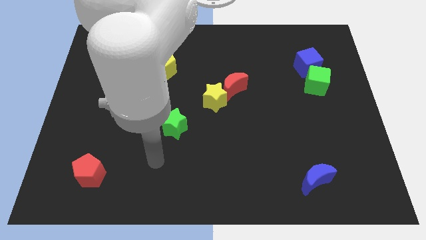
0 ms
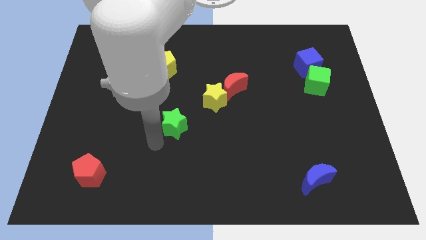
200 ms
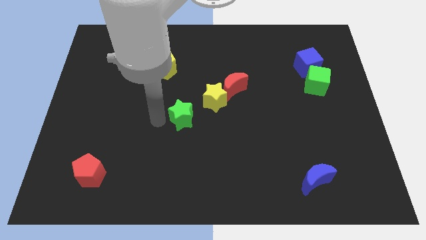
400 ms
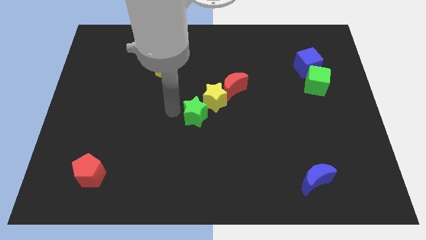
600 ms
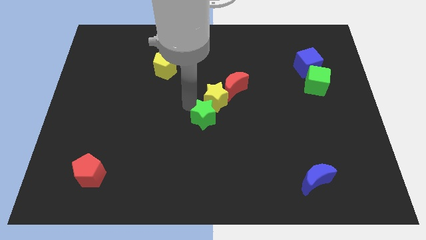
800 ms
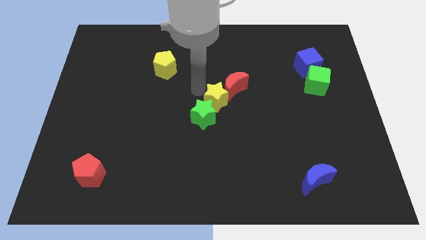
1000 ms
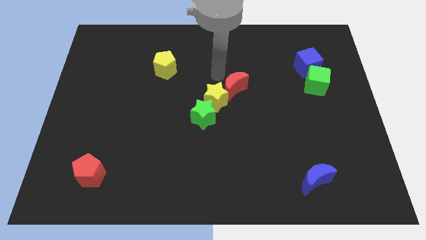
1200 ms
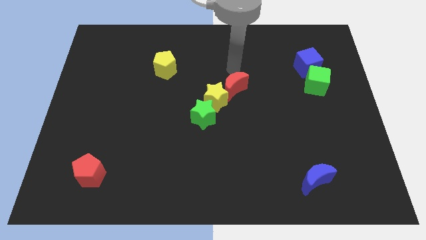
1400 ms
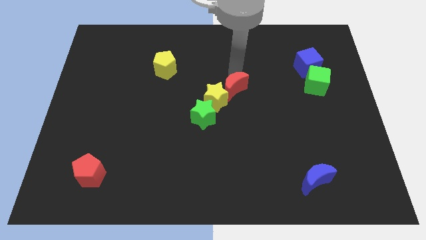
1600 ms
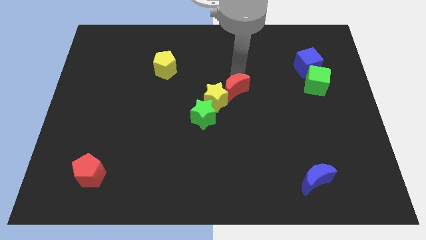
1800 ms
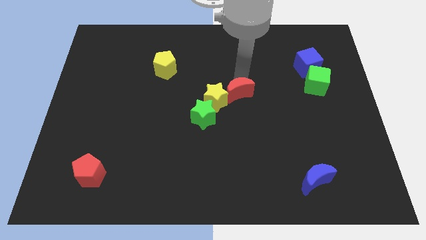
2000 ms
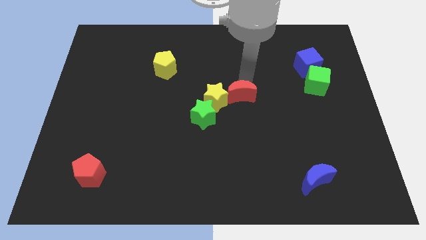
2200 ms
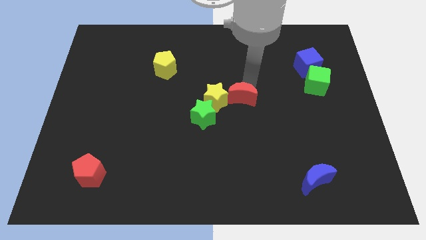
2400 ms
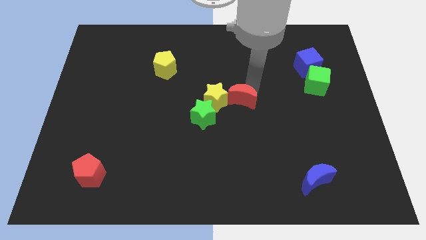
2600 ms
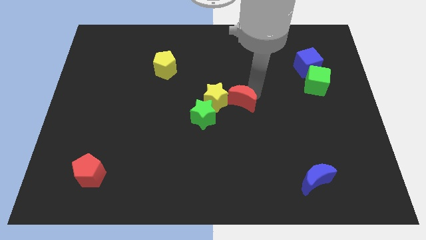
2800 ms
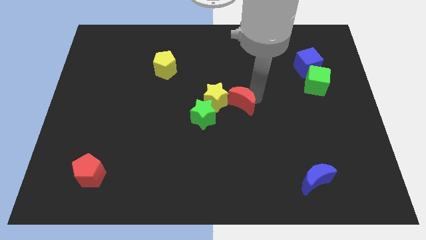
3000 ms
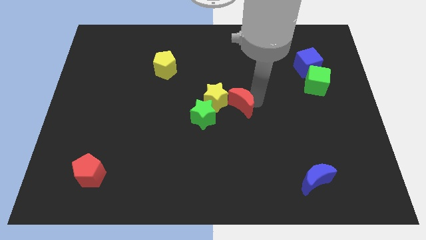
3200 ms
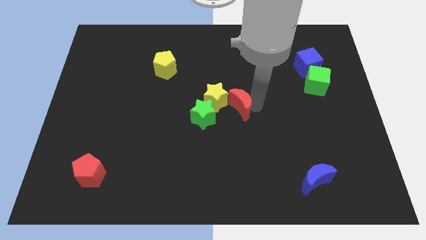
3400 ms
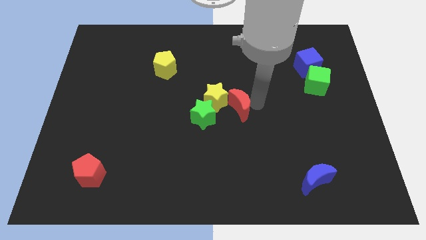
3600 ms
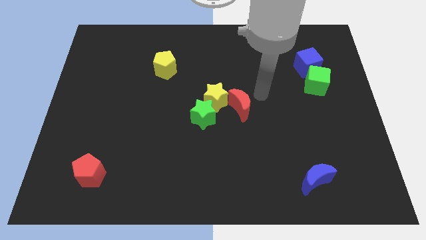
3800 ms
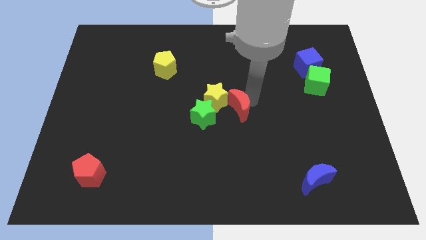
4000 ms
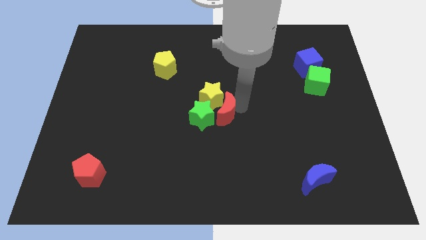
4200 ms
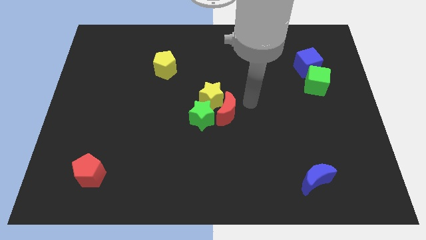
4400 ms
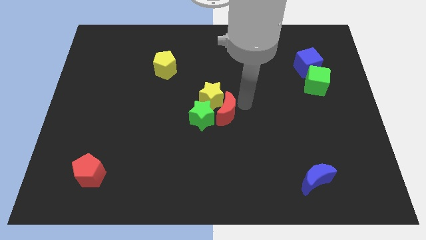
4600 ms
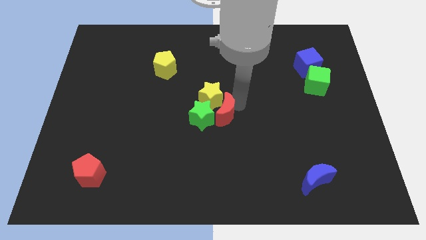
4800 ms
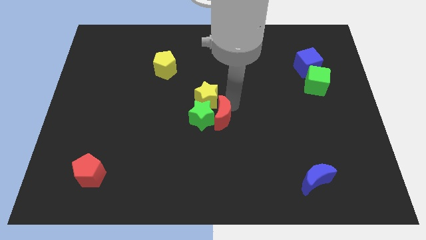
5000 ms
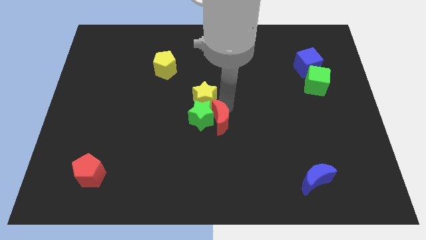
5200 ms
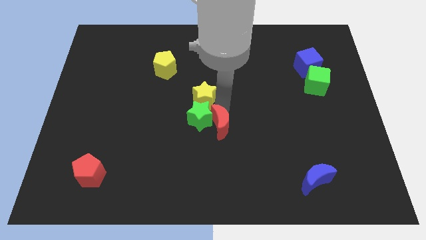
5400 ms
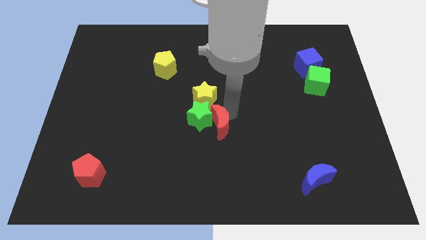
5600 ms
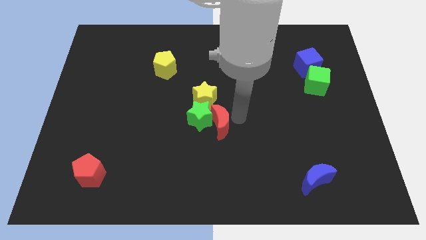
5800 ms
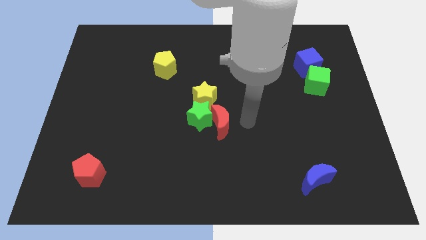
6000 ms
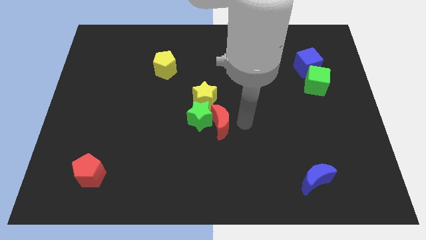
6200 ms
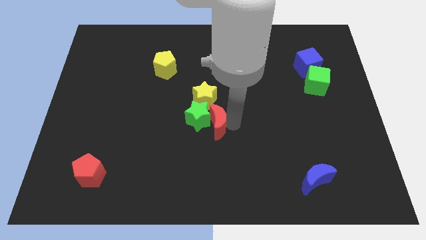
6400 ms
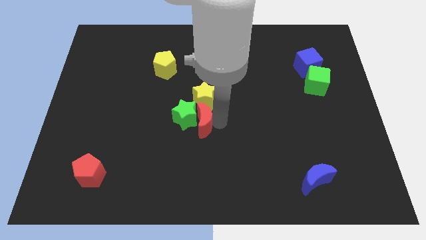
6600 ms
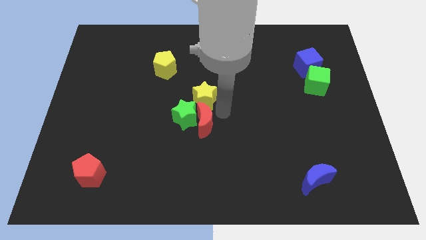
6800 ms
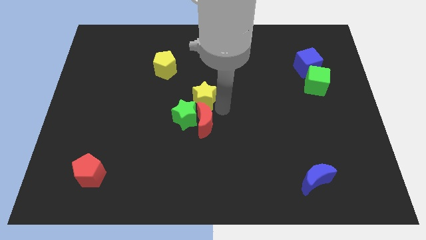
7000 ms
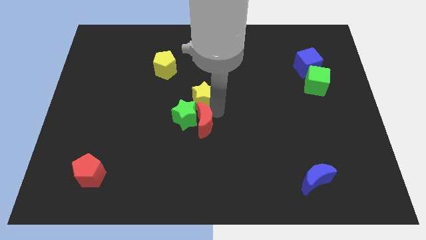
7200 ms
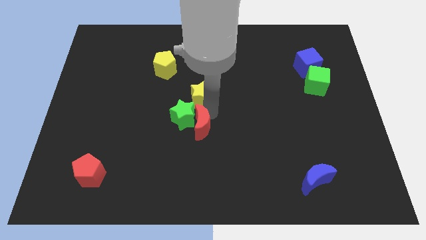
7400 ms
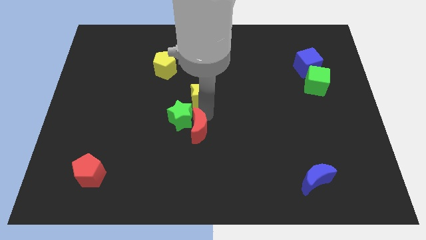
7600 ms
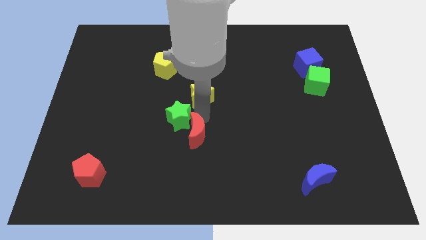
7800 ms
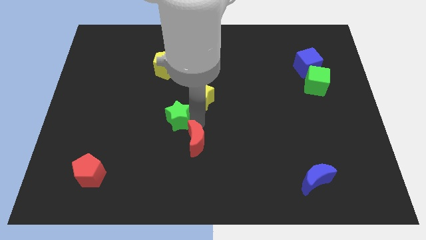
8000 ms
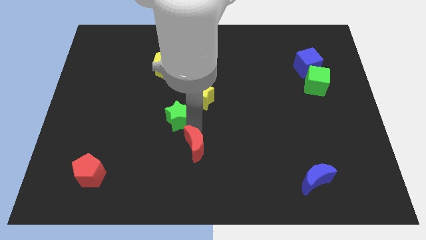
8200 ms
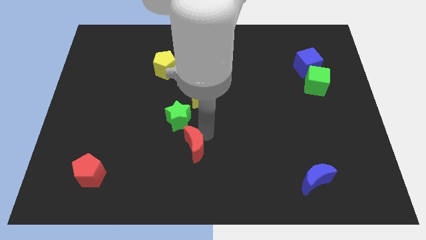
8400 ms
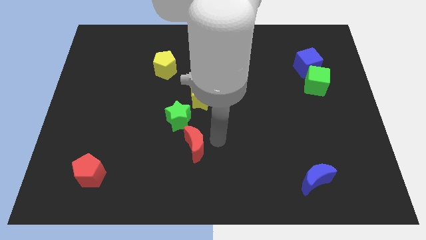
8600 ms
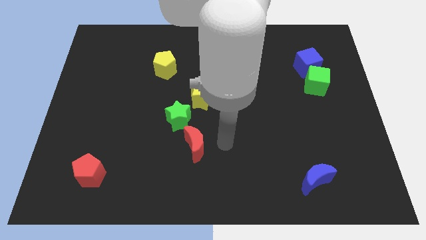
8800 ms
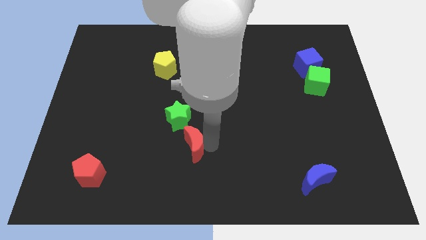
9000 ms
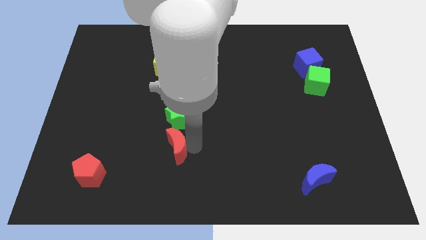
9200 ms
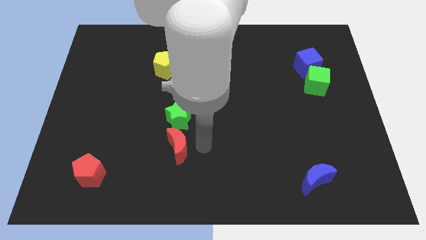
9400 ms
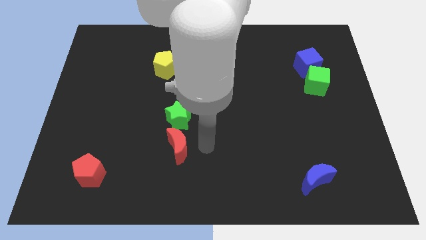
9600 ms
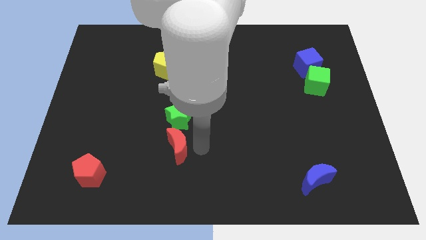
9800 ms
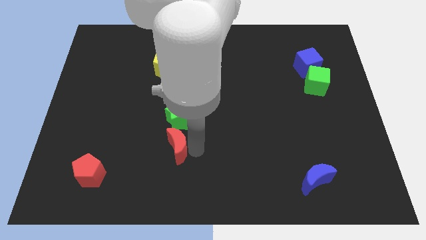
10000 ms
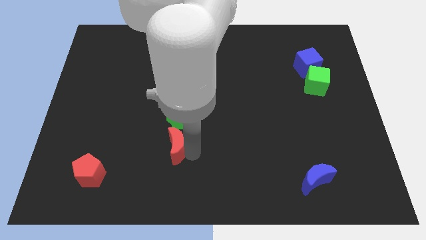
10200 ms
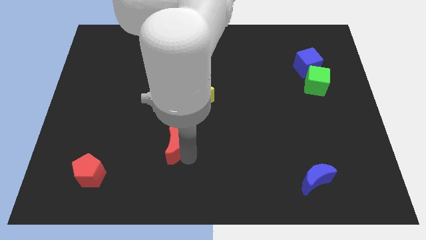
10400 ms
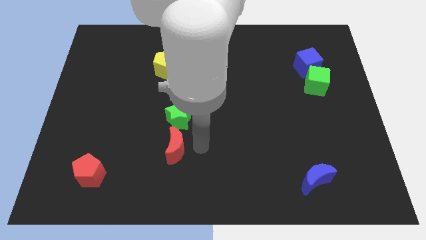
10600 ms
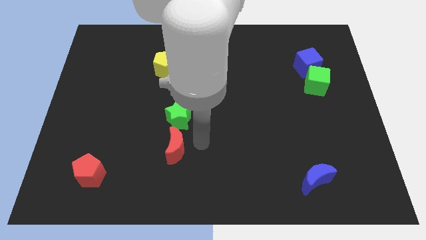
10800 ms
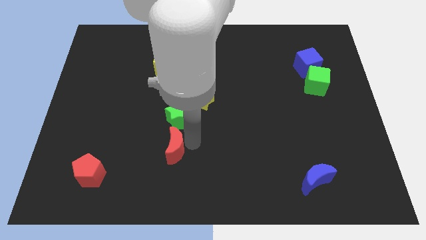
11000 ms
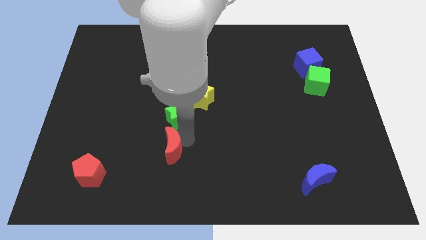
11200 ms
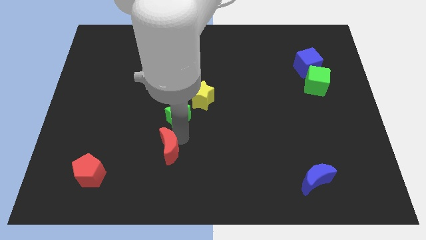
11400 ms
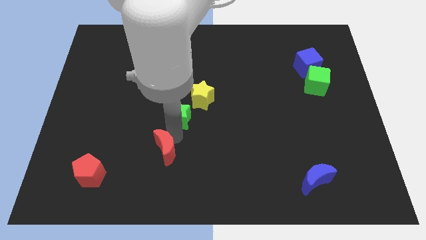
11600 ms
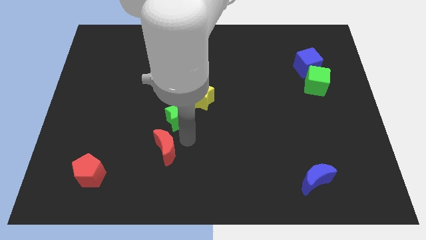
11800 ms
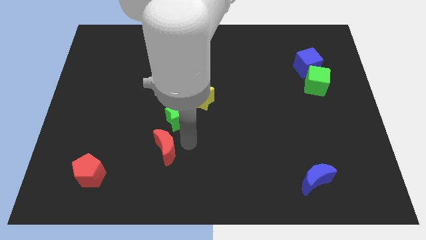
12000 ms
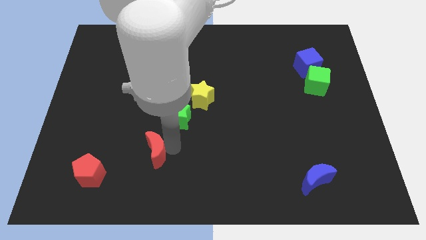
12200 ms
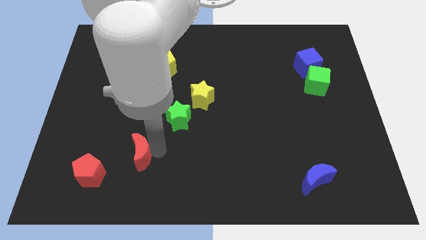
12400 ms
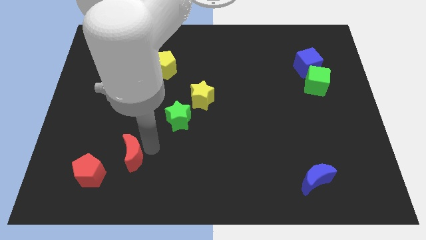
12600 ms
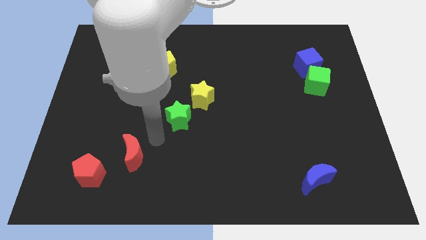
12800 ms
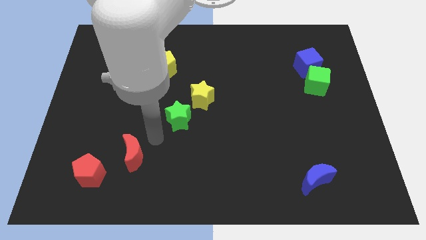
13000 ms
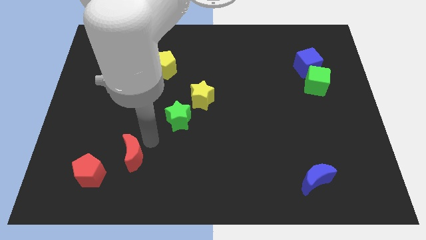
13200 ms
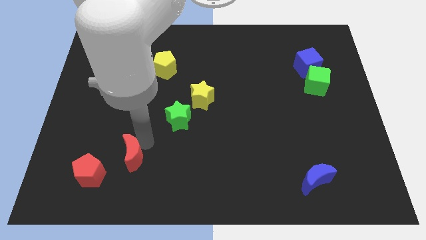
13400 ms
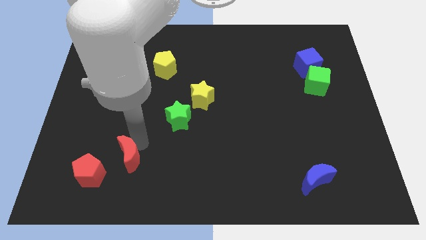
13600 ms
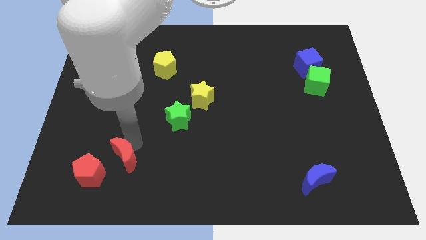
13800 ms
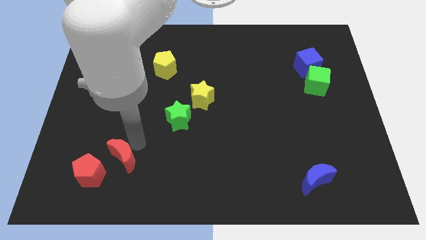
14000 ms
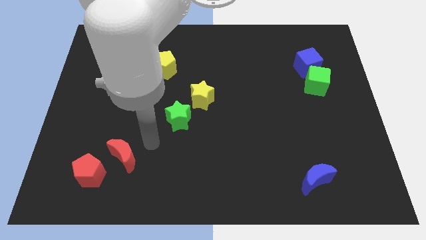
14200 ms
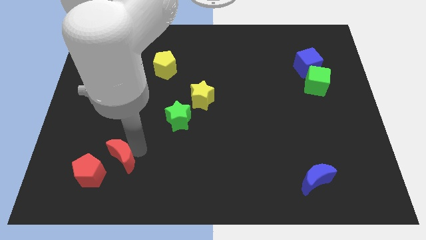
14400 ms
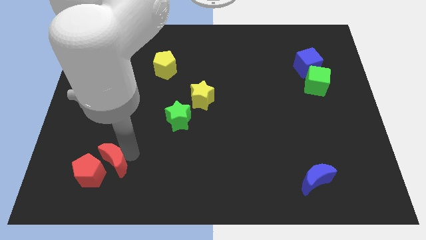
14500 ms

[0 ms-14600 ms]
slide the red moon close to the red pentagon
